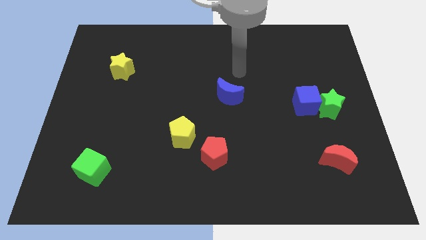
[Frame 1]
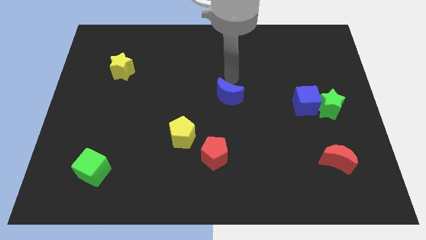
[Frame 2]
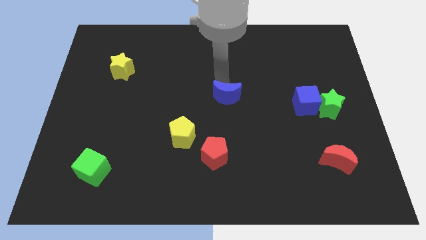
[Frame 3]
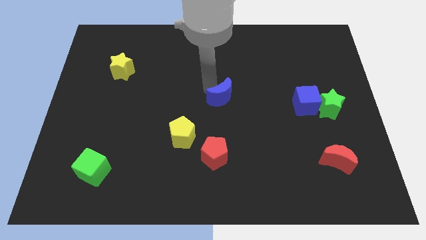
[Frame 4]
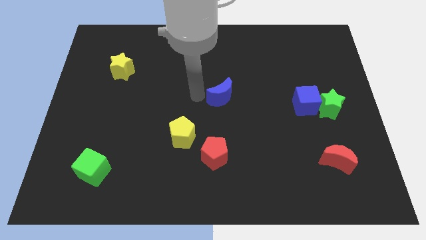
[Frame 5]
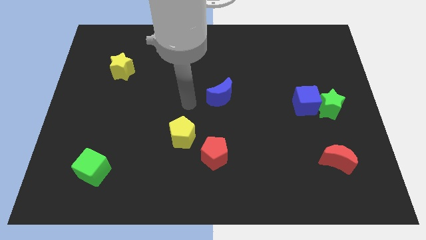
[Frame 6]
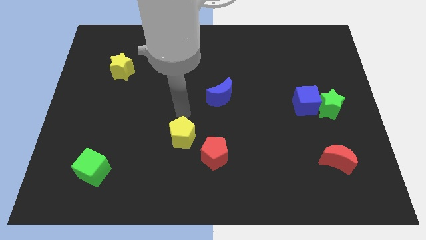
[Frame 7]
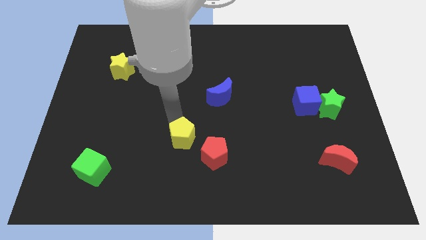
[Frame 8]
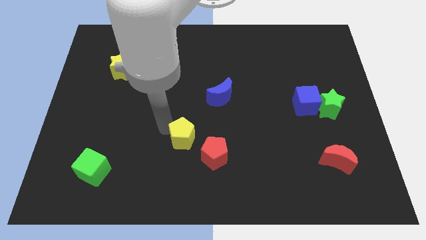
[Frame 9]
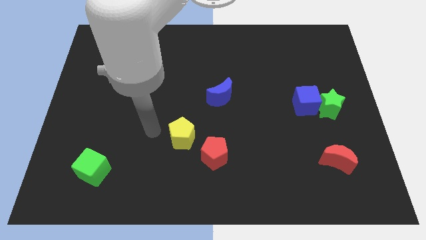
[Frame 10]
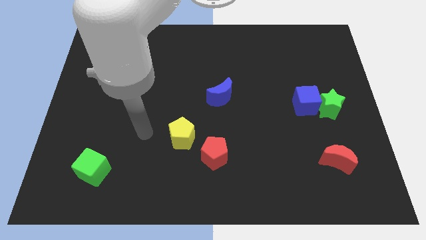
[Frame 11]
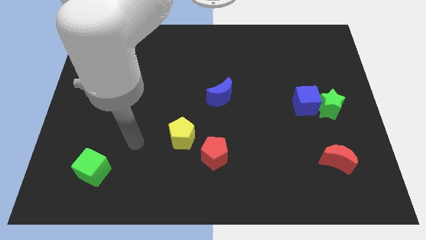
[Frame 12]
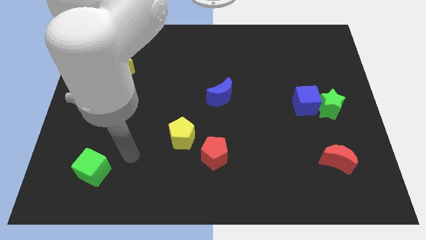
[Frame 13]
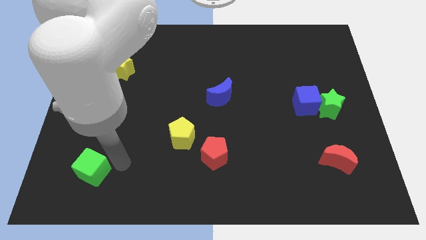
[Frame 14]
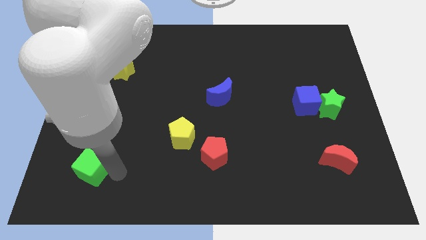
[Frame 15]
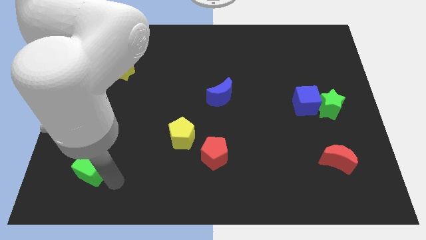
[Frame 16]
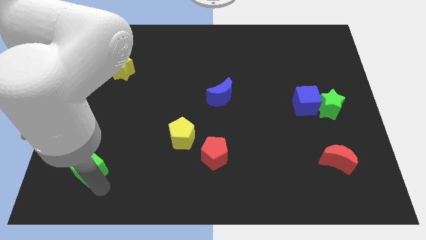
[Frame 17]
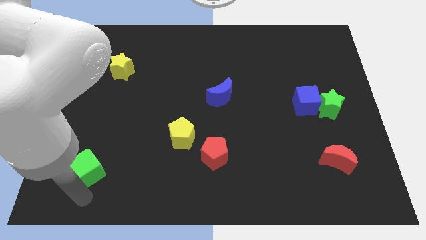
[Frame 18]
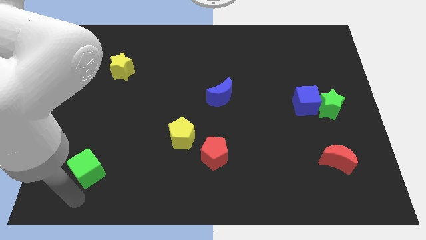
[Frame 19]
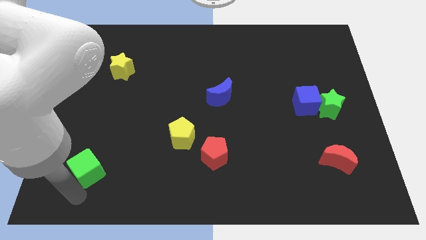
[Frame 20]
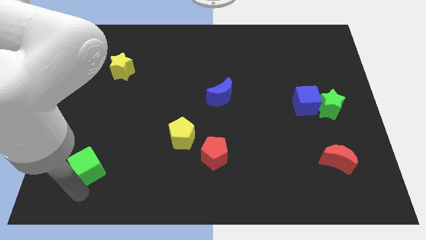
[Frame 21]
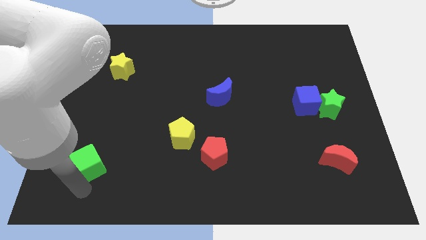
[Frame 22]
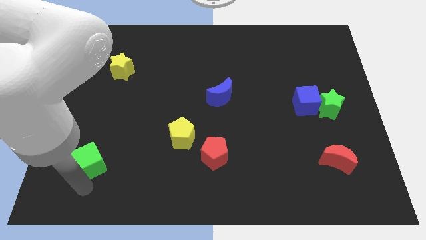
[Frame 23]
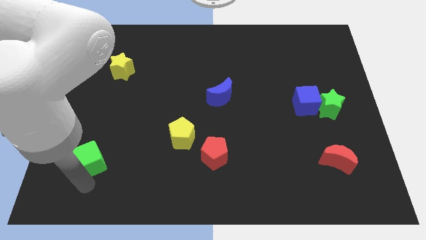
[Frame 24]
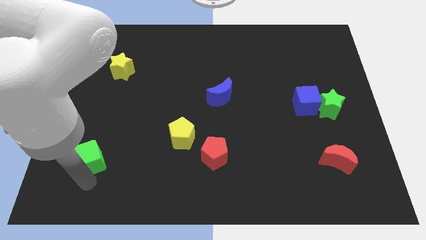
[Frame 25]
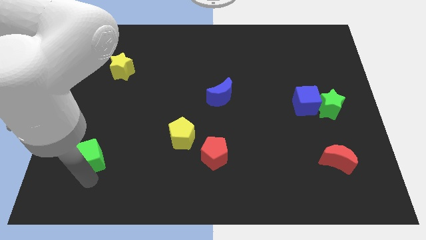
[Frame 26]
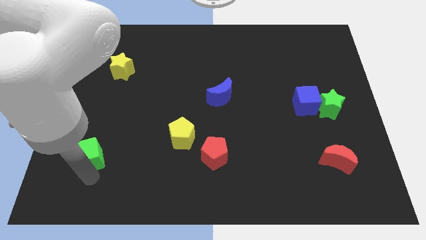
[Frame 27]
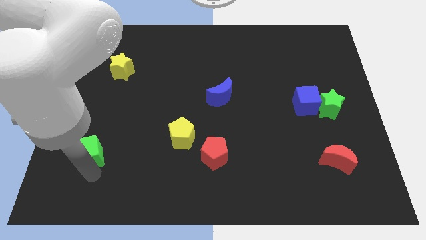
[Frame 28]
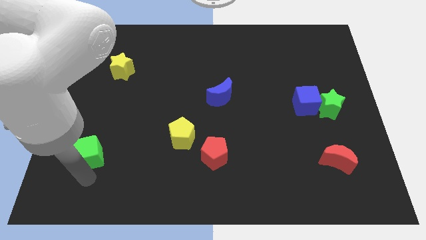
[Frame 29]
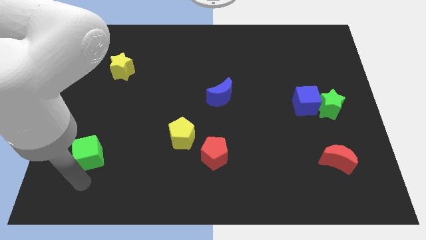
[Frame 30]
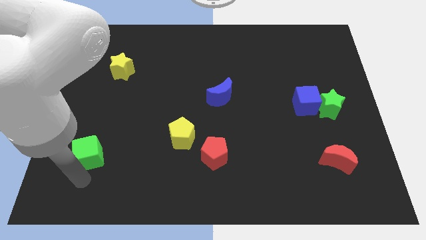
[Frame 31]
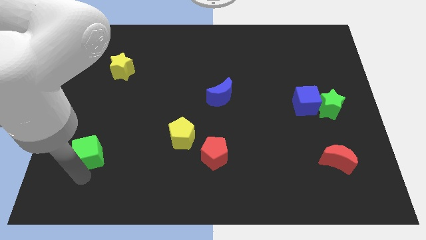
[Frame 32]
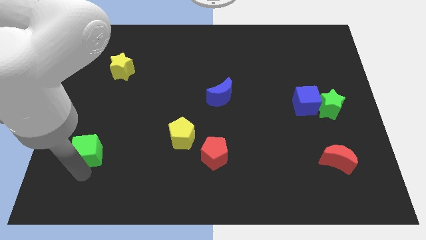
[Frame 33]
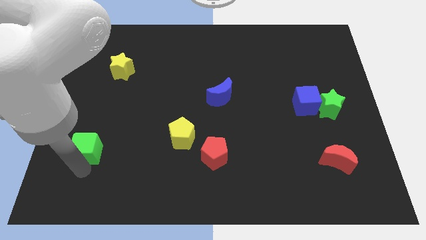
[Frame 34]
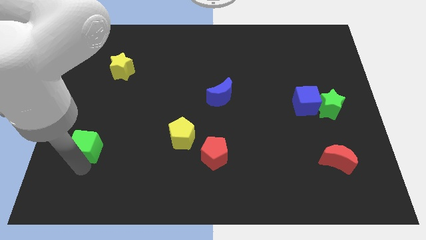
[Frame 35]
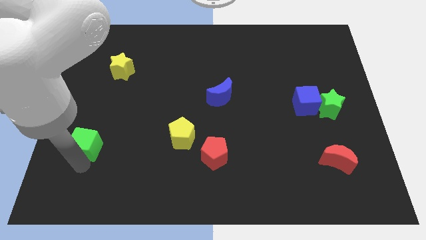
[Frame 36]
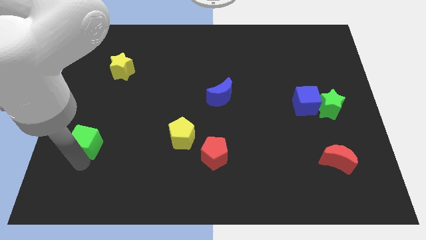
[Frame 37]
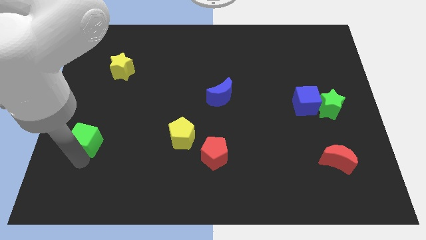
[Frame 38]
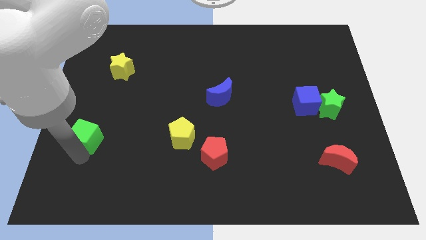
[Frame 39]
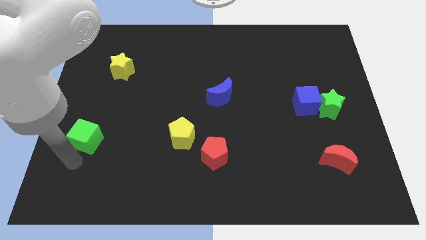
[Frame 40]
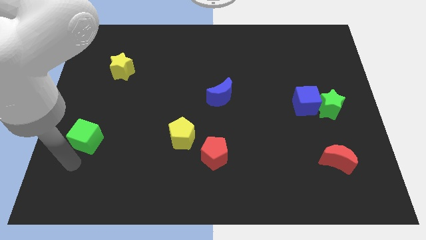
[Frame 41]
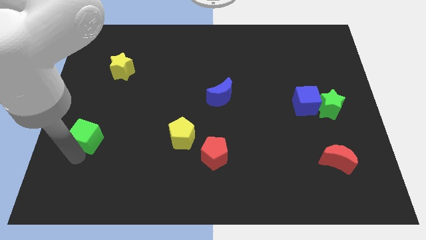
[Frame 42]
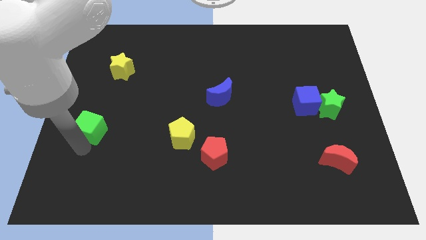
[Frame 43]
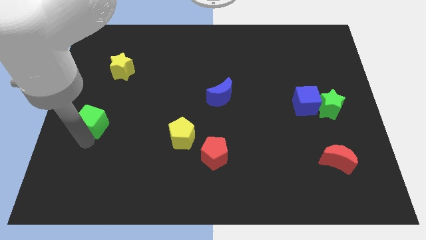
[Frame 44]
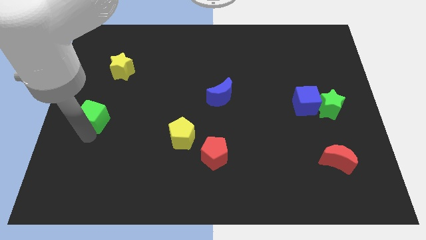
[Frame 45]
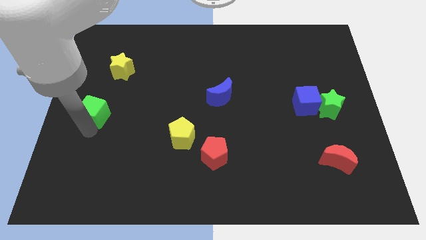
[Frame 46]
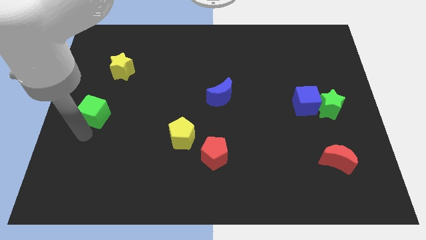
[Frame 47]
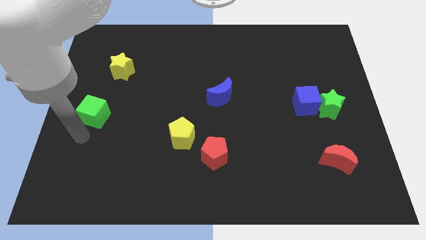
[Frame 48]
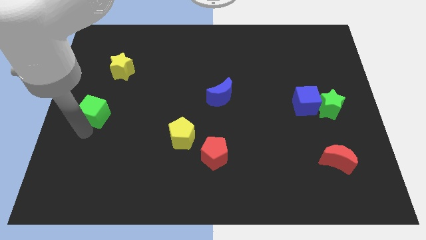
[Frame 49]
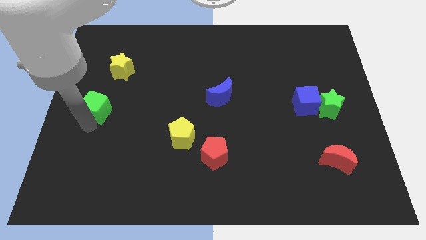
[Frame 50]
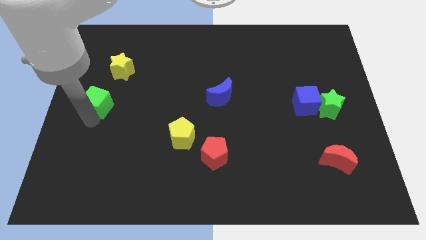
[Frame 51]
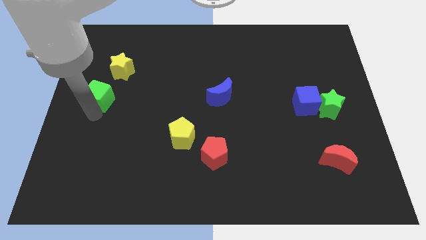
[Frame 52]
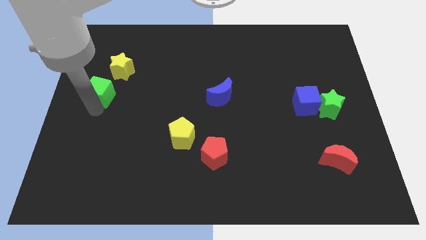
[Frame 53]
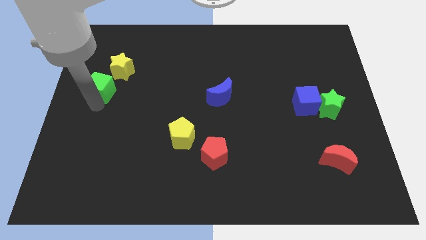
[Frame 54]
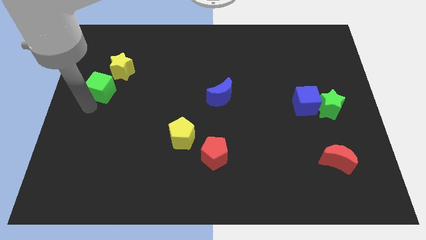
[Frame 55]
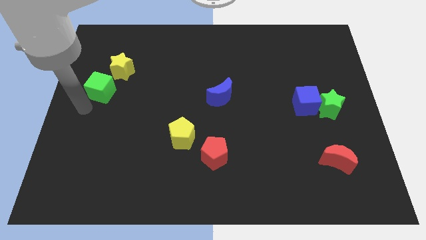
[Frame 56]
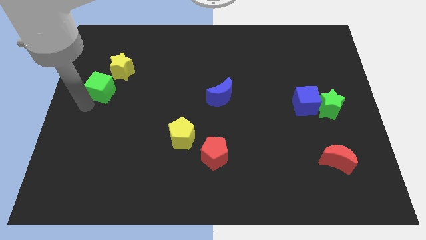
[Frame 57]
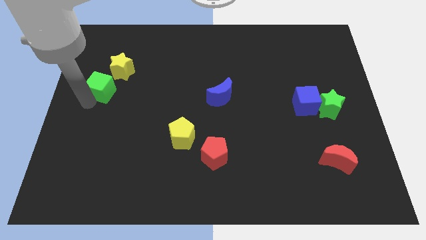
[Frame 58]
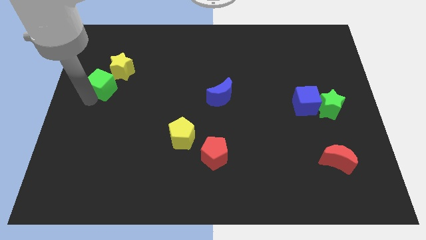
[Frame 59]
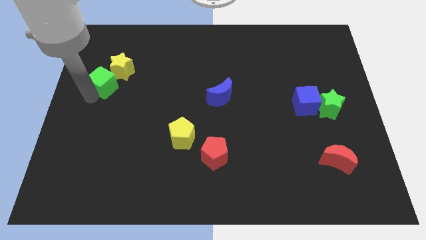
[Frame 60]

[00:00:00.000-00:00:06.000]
push the green cube towards the yellow star

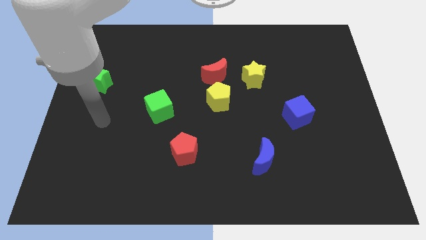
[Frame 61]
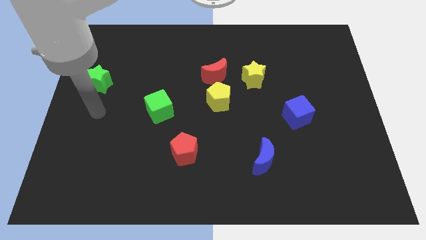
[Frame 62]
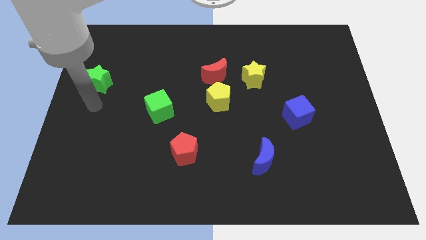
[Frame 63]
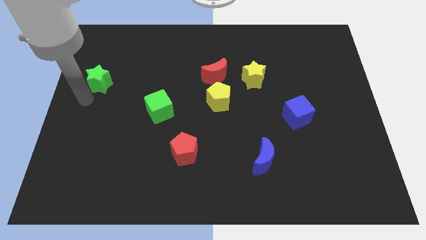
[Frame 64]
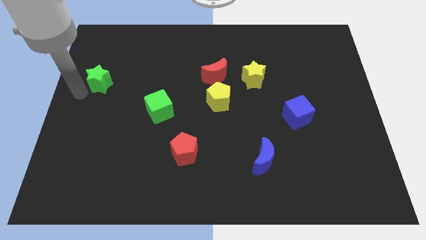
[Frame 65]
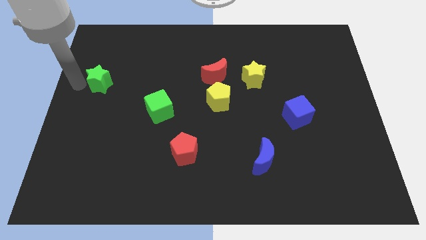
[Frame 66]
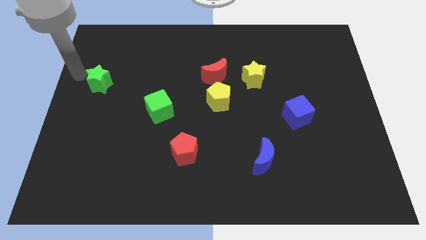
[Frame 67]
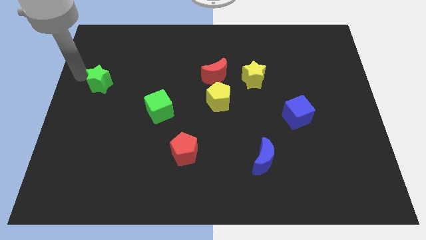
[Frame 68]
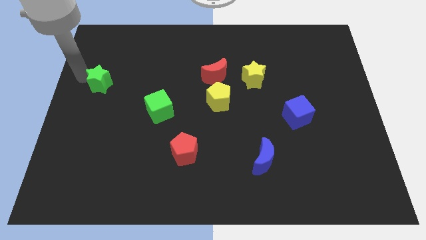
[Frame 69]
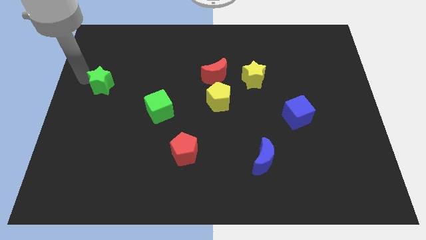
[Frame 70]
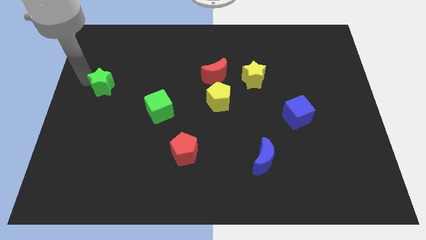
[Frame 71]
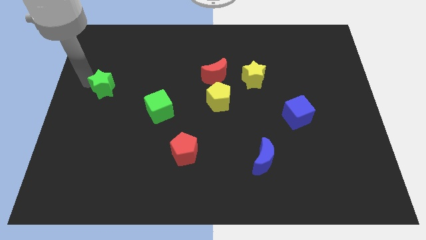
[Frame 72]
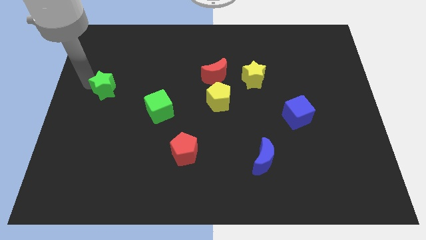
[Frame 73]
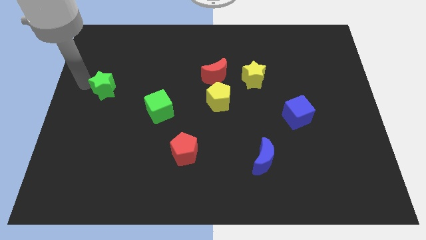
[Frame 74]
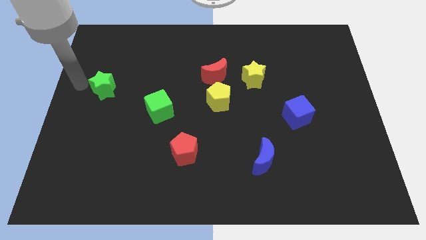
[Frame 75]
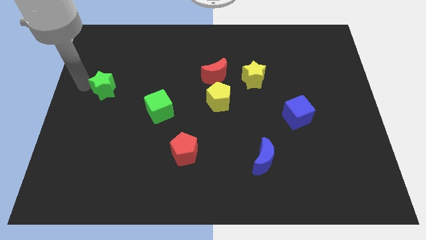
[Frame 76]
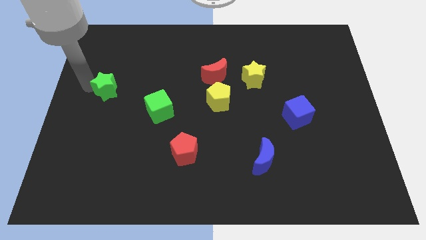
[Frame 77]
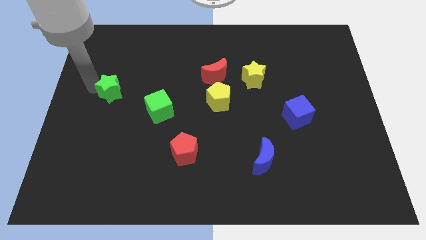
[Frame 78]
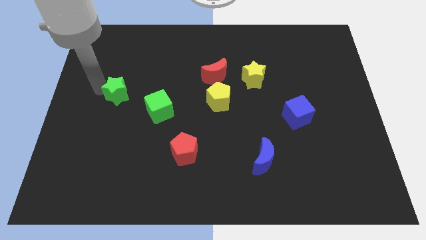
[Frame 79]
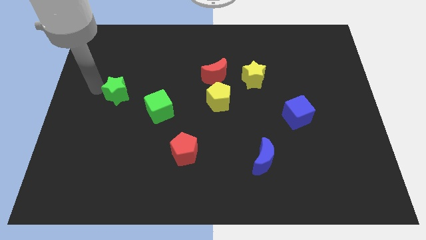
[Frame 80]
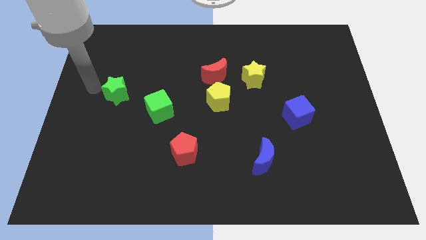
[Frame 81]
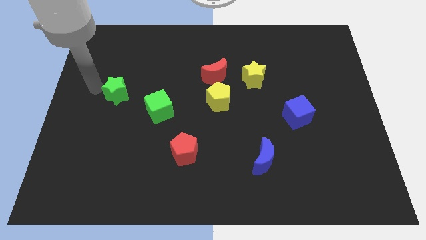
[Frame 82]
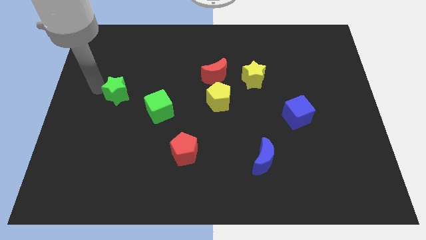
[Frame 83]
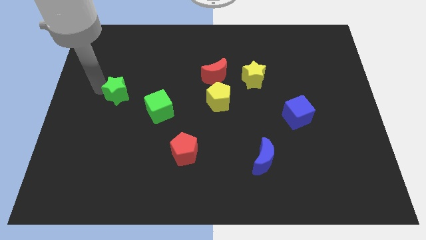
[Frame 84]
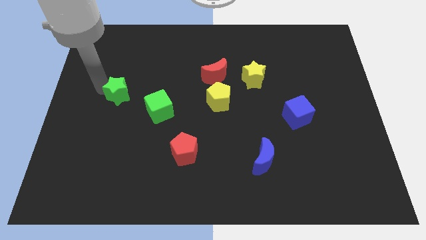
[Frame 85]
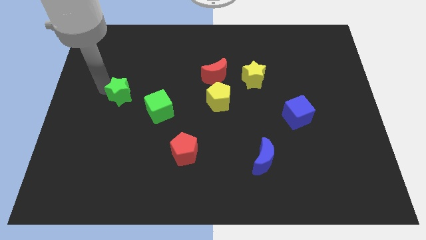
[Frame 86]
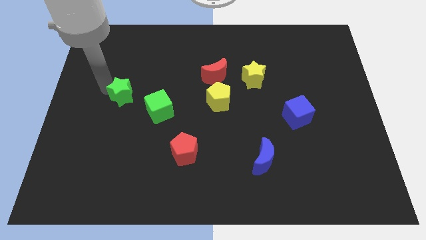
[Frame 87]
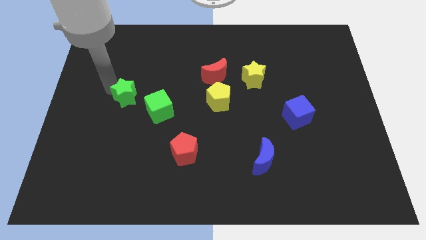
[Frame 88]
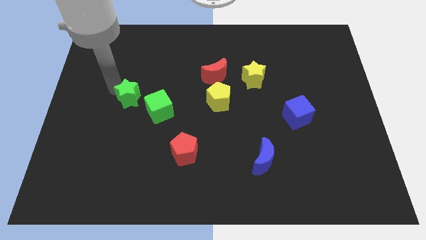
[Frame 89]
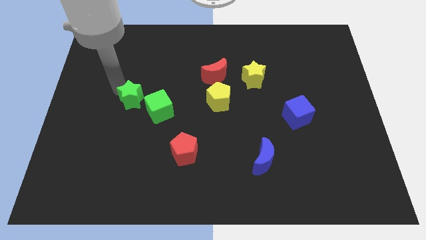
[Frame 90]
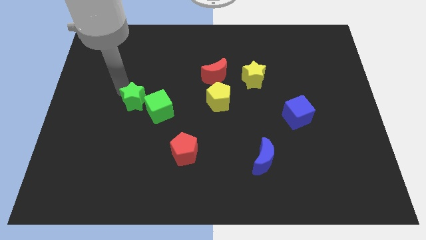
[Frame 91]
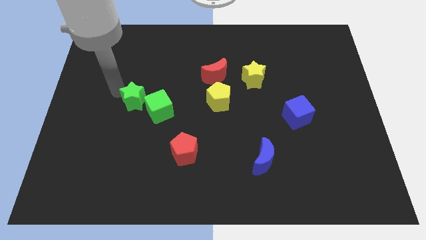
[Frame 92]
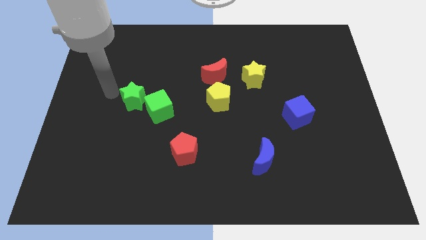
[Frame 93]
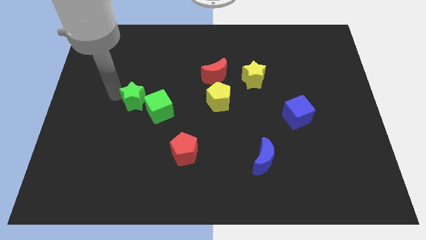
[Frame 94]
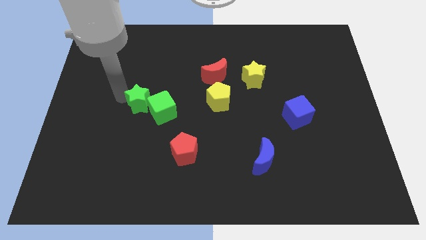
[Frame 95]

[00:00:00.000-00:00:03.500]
move the green star to the green cube
